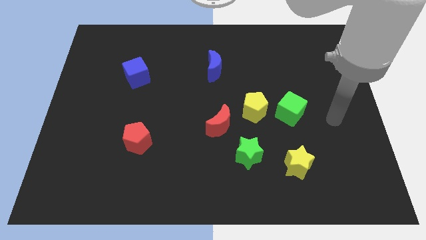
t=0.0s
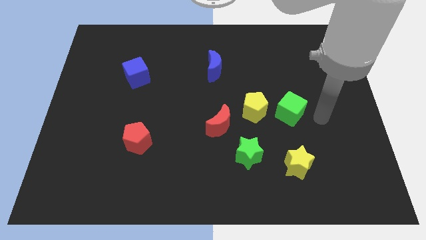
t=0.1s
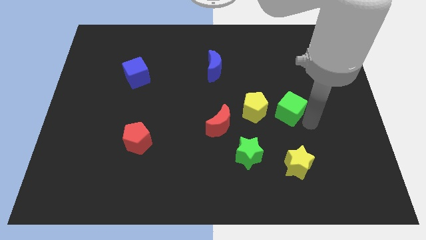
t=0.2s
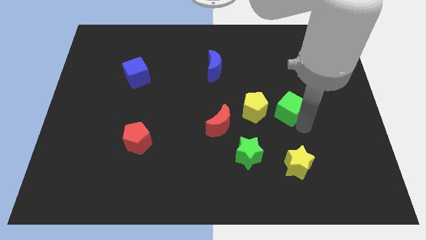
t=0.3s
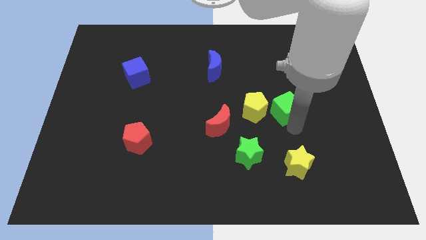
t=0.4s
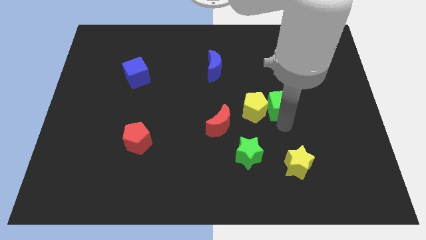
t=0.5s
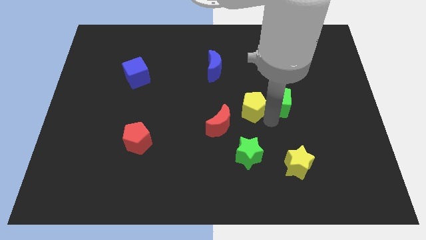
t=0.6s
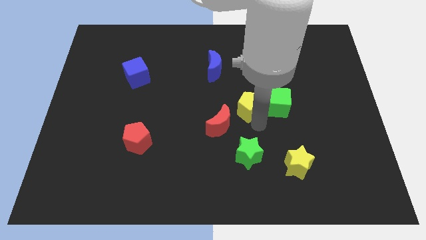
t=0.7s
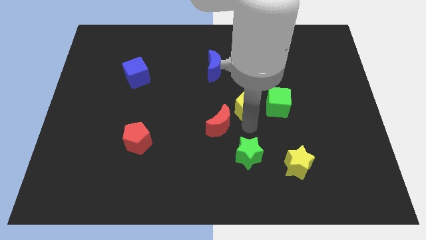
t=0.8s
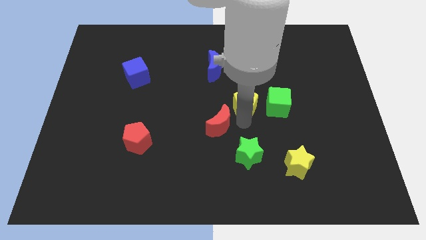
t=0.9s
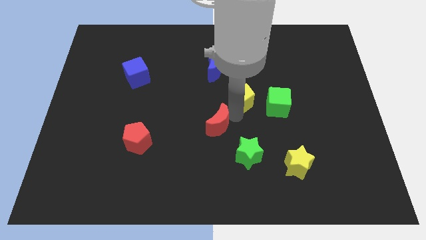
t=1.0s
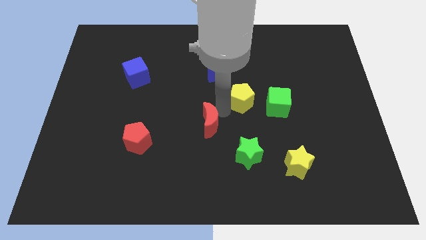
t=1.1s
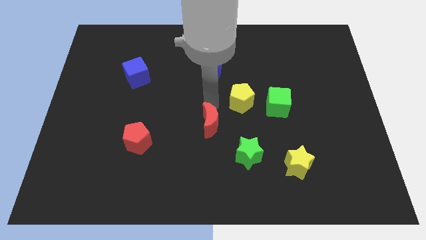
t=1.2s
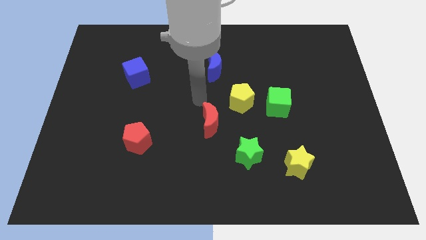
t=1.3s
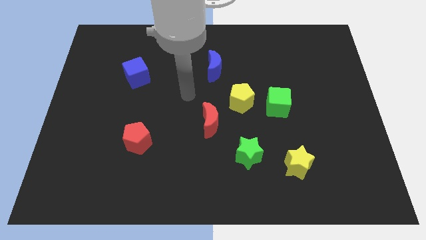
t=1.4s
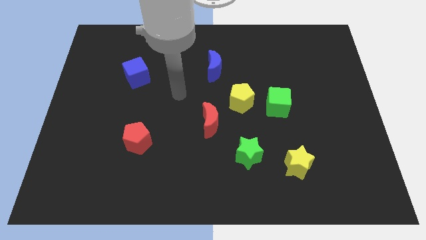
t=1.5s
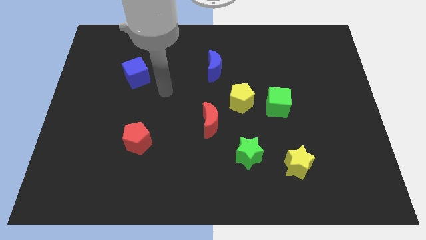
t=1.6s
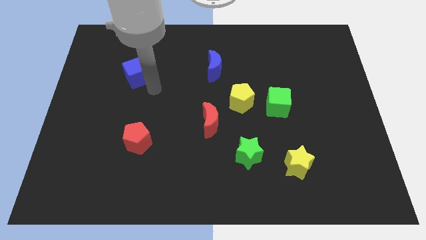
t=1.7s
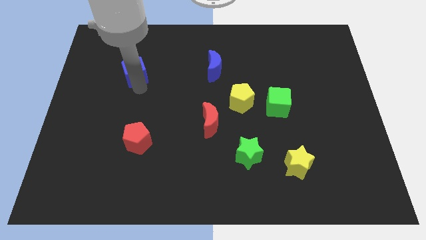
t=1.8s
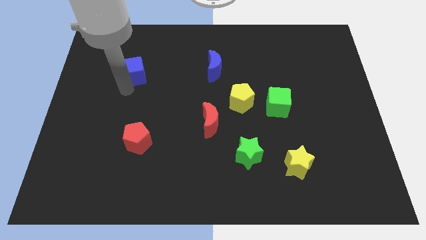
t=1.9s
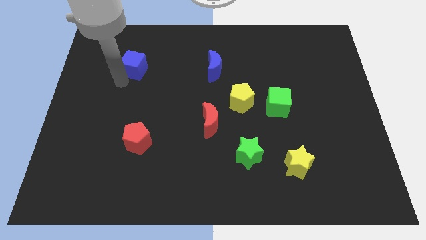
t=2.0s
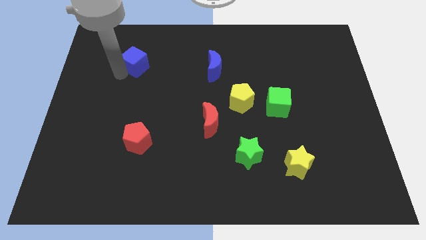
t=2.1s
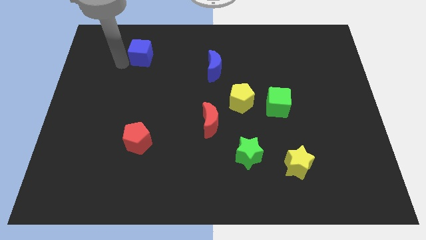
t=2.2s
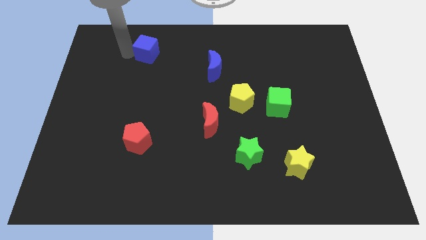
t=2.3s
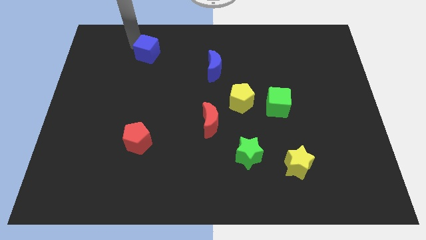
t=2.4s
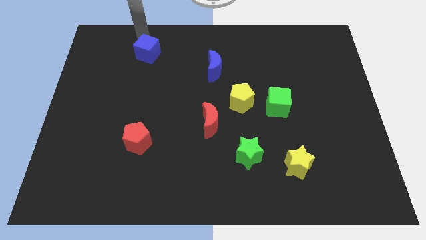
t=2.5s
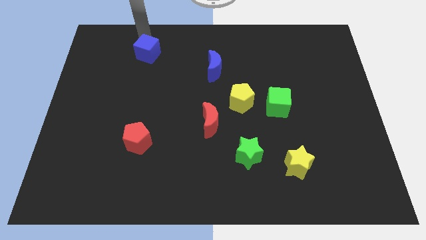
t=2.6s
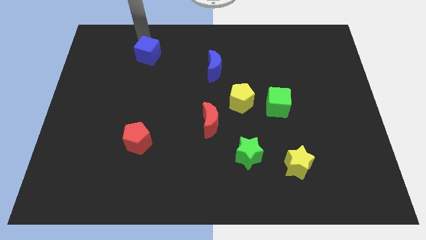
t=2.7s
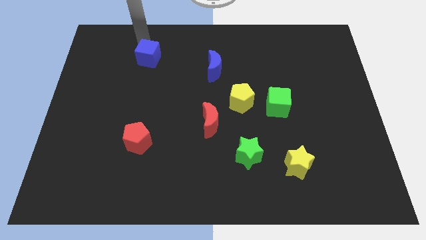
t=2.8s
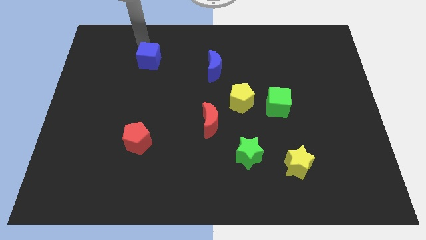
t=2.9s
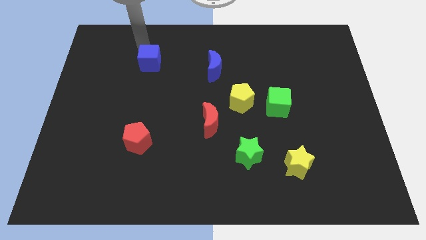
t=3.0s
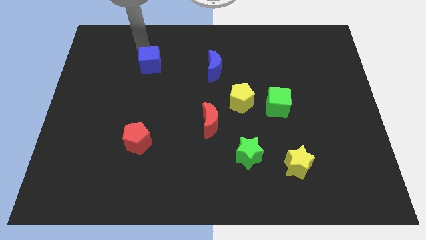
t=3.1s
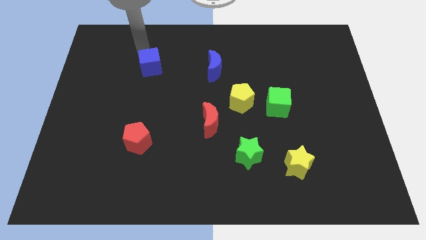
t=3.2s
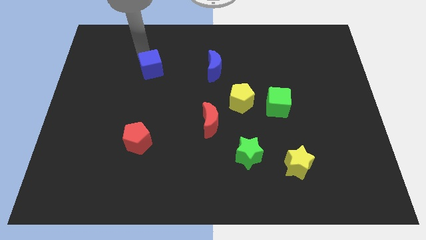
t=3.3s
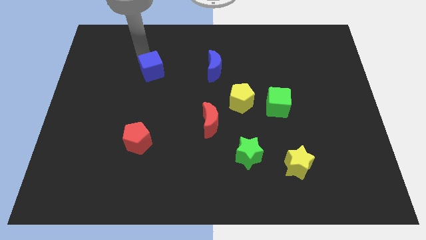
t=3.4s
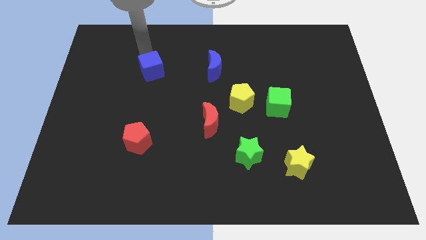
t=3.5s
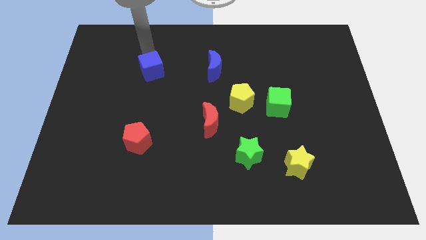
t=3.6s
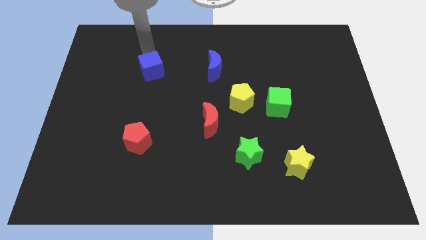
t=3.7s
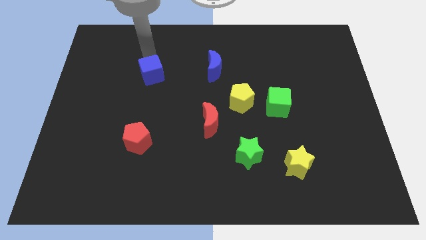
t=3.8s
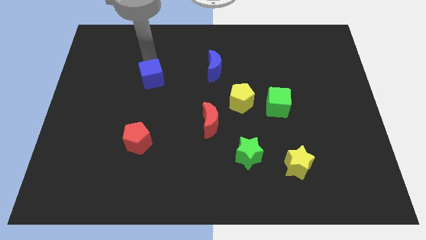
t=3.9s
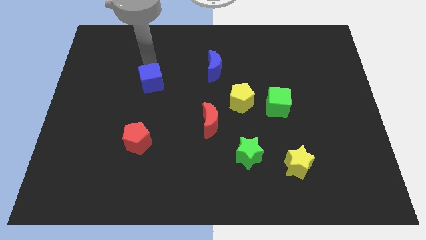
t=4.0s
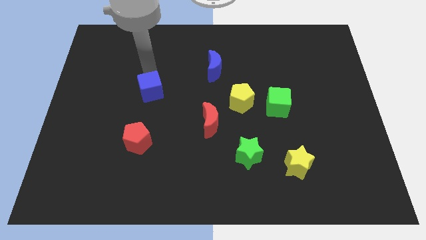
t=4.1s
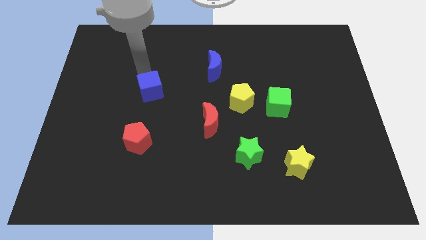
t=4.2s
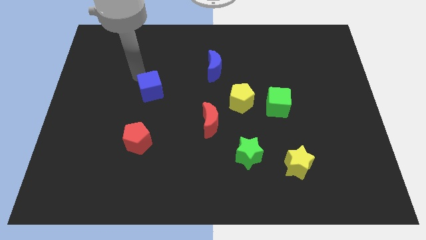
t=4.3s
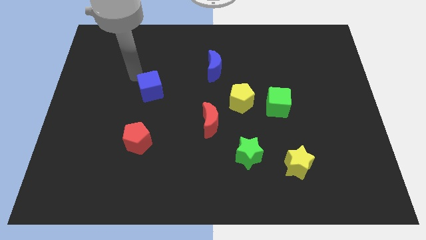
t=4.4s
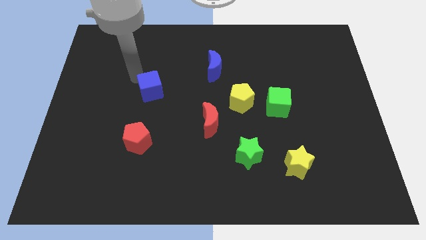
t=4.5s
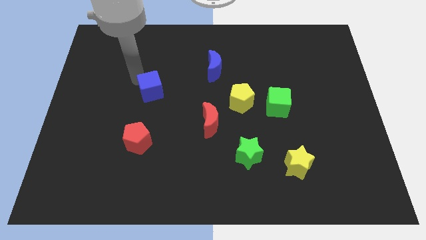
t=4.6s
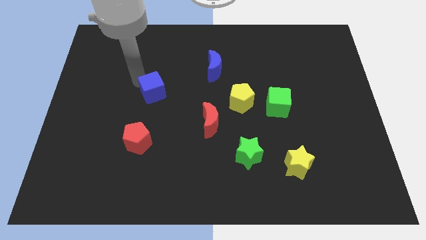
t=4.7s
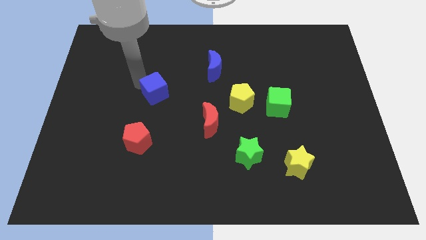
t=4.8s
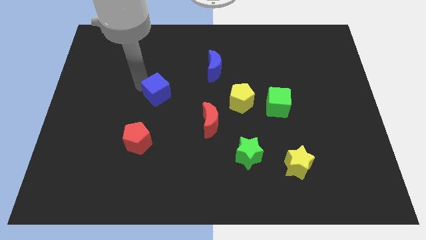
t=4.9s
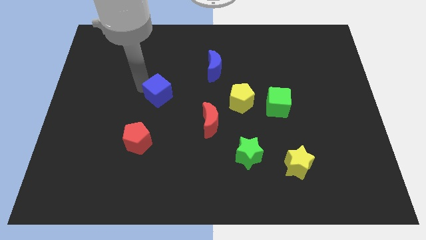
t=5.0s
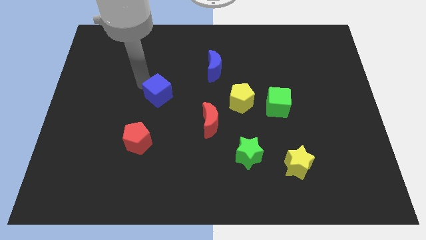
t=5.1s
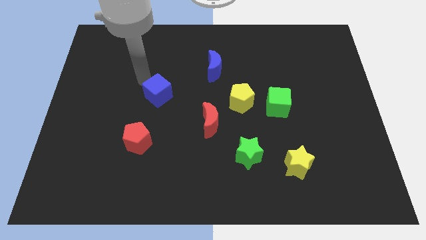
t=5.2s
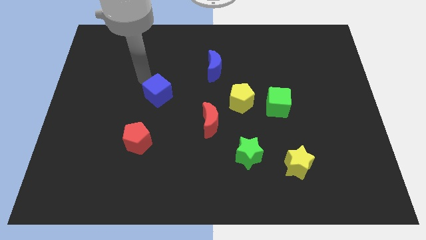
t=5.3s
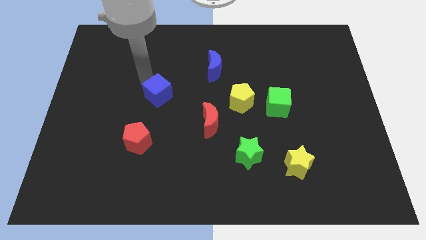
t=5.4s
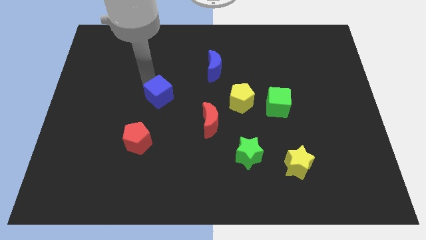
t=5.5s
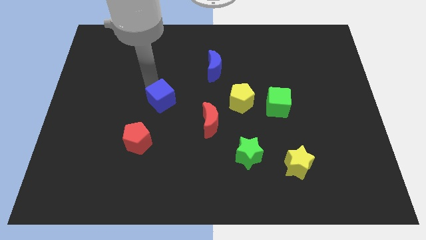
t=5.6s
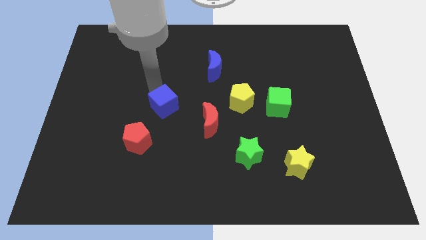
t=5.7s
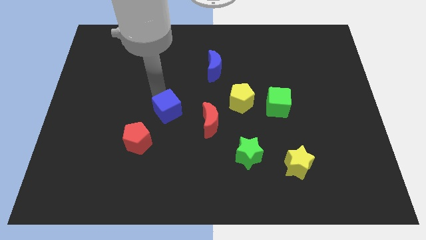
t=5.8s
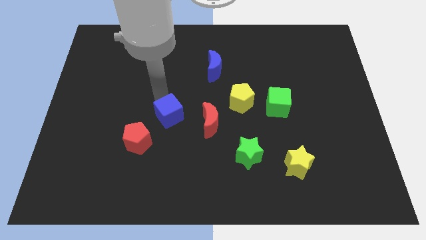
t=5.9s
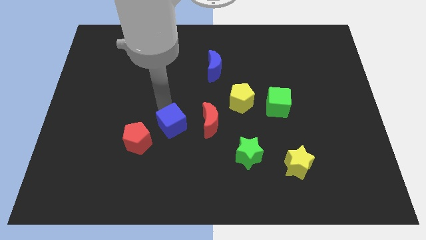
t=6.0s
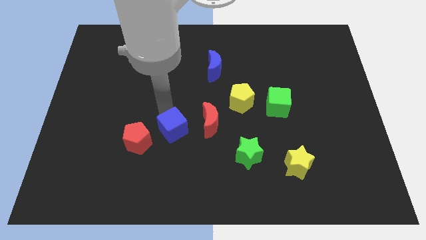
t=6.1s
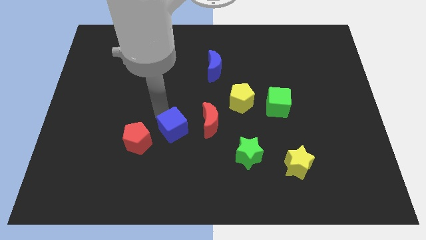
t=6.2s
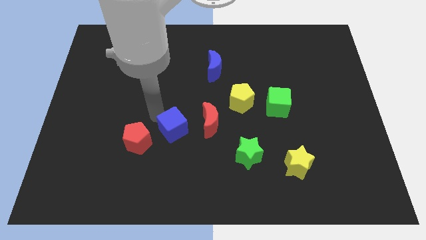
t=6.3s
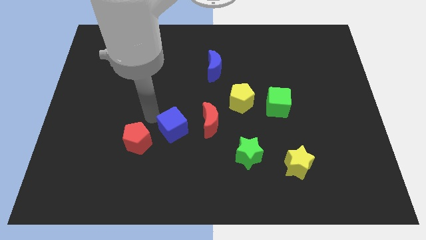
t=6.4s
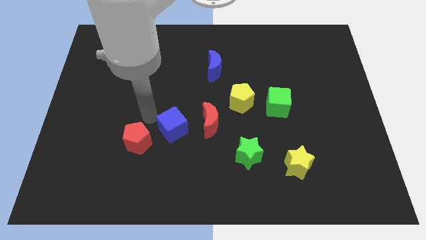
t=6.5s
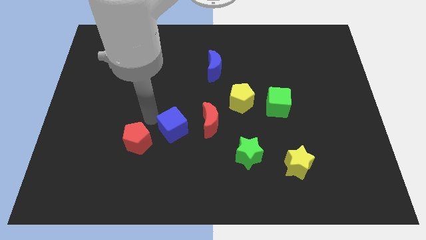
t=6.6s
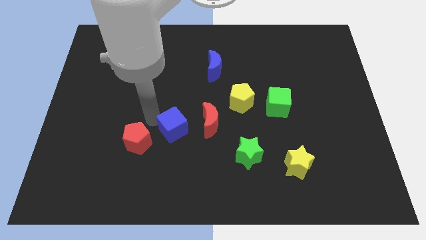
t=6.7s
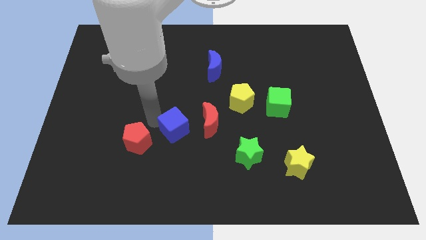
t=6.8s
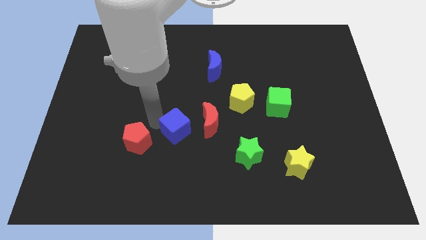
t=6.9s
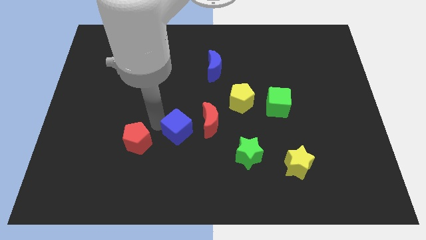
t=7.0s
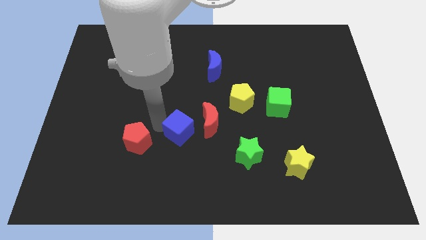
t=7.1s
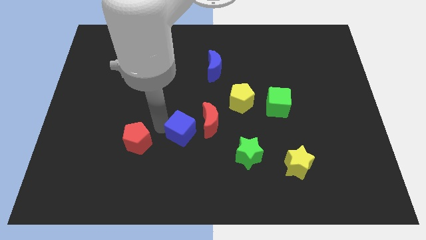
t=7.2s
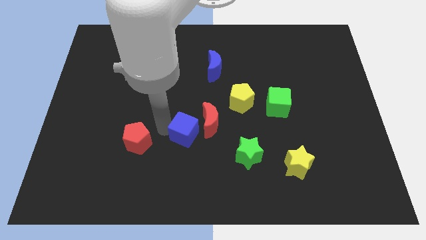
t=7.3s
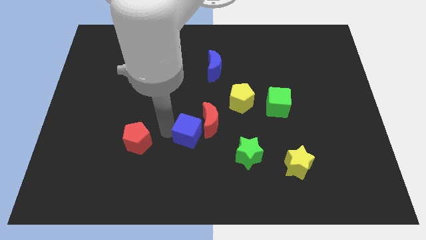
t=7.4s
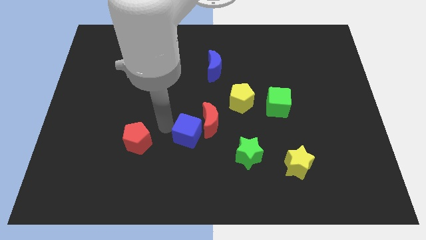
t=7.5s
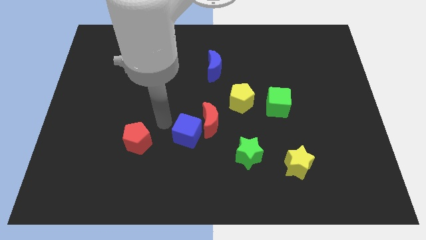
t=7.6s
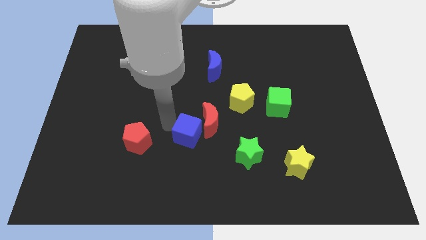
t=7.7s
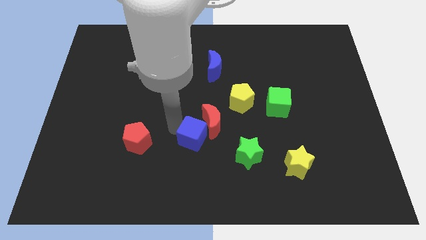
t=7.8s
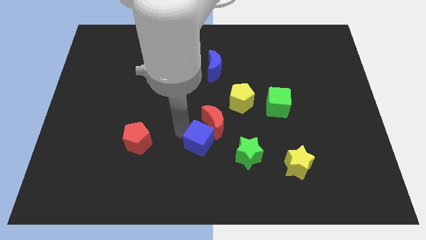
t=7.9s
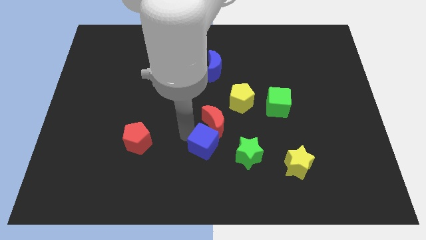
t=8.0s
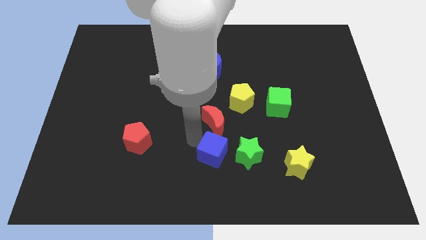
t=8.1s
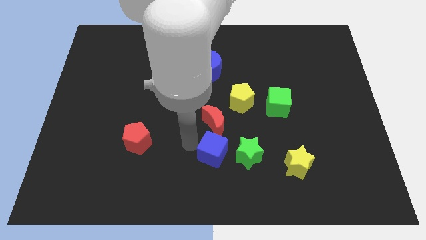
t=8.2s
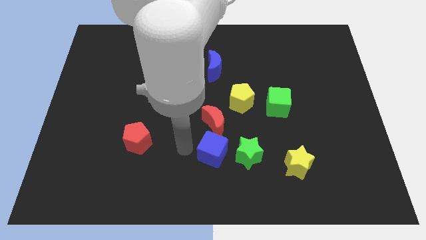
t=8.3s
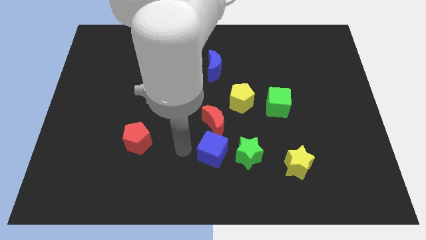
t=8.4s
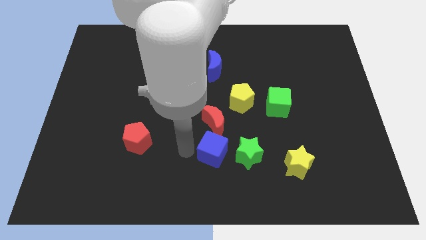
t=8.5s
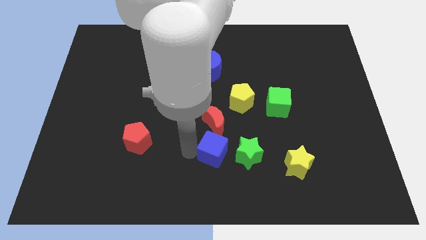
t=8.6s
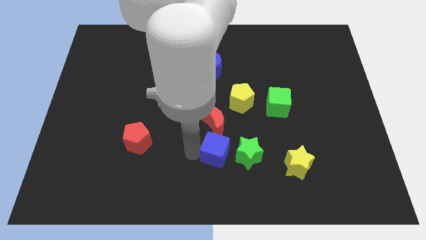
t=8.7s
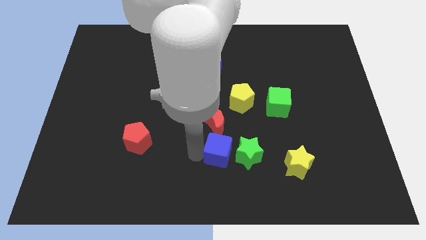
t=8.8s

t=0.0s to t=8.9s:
move the blue cube close to the green star
